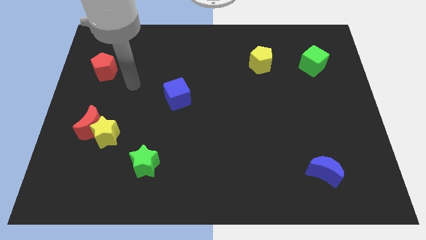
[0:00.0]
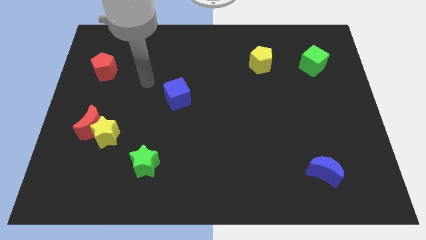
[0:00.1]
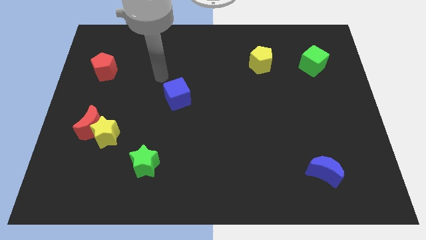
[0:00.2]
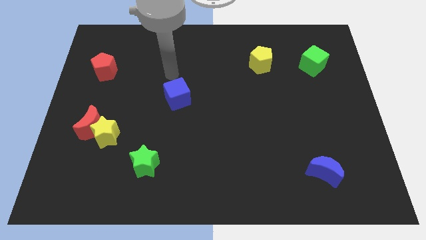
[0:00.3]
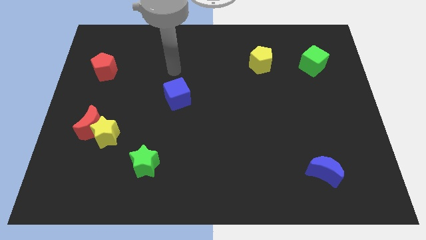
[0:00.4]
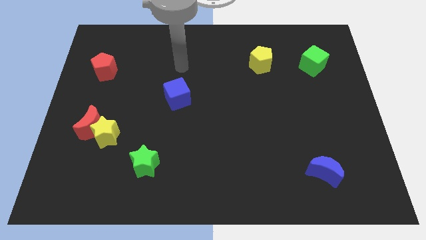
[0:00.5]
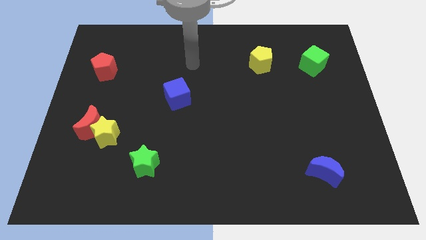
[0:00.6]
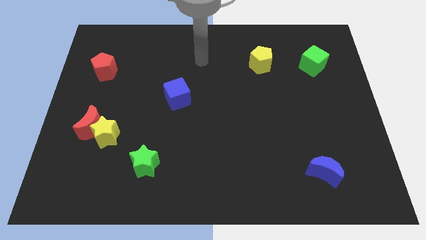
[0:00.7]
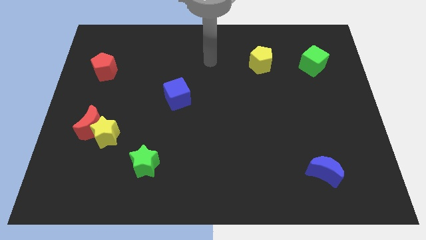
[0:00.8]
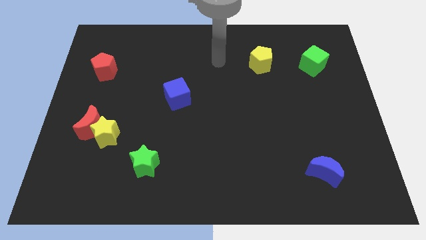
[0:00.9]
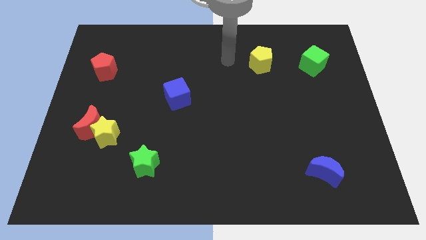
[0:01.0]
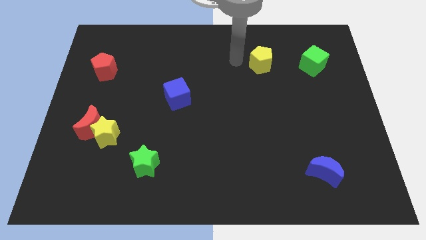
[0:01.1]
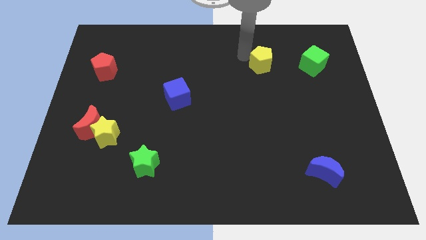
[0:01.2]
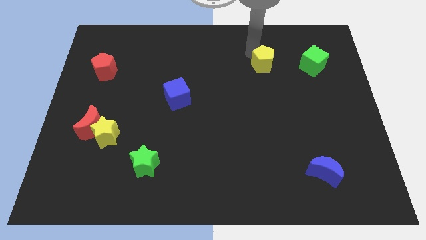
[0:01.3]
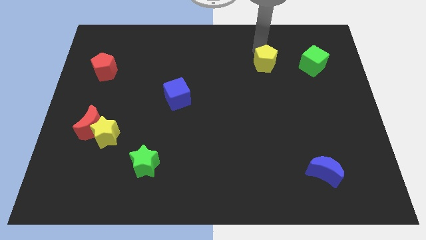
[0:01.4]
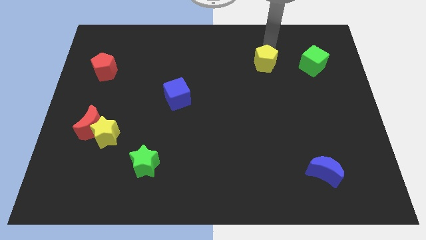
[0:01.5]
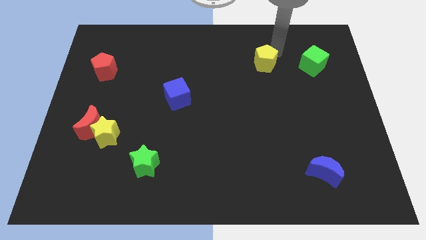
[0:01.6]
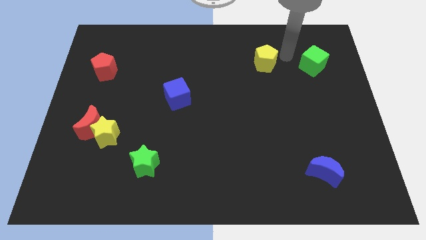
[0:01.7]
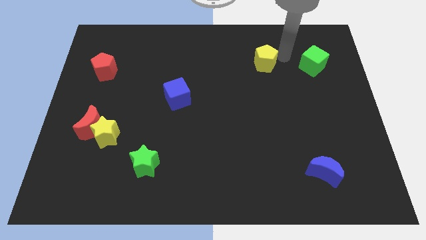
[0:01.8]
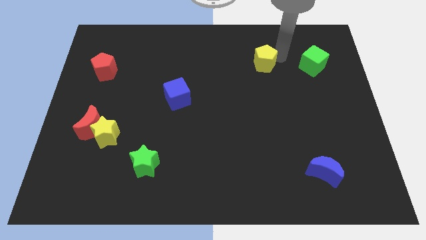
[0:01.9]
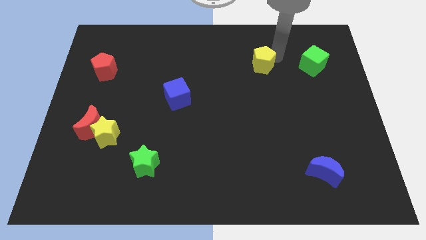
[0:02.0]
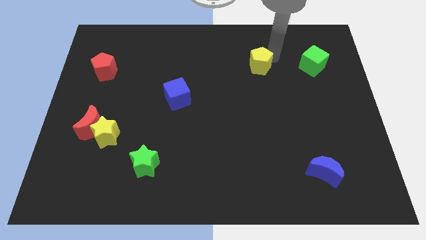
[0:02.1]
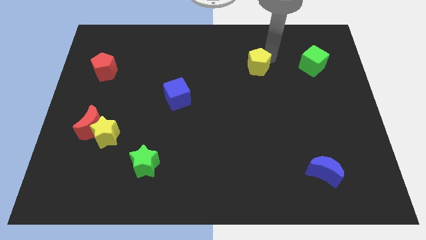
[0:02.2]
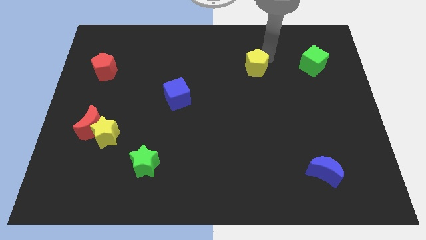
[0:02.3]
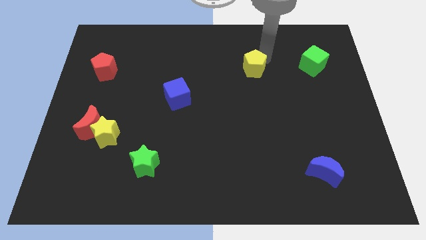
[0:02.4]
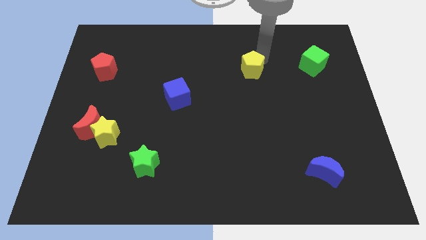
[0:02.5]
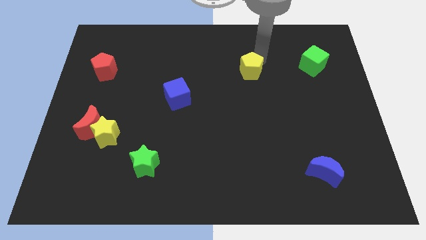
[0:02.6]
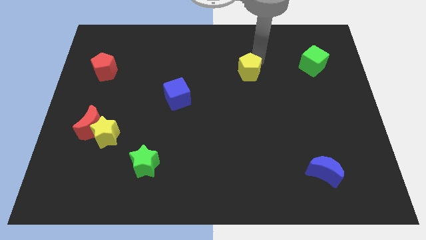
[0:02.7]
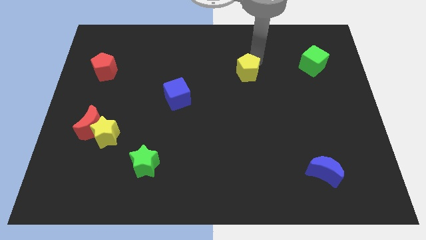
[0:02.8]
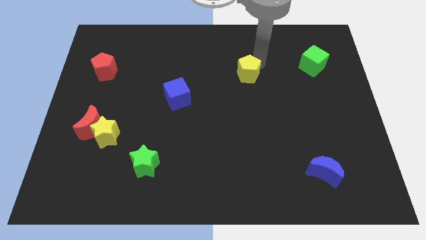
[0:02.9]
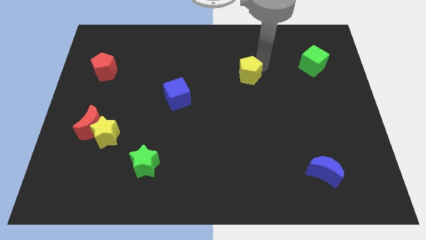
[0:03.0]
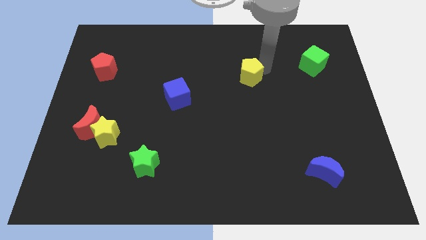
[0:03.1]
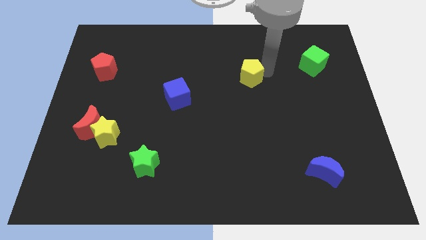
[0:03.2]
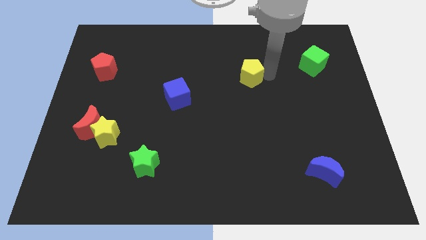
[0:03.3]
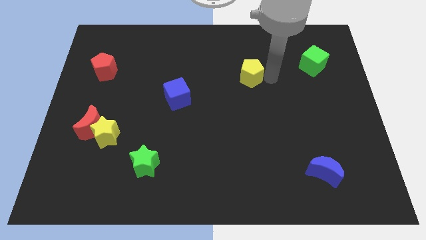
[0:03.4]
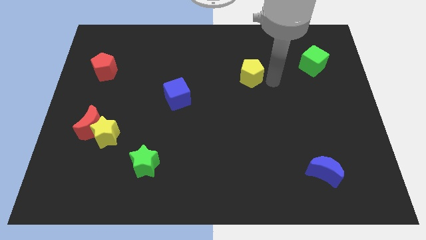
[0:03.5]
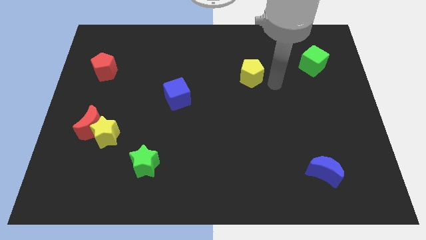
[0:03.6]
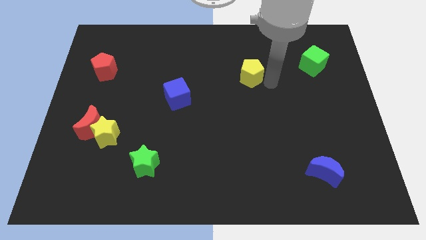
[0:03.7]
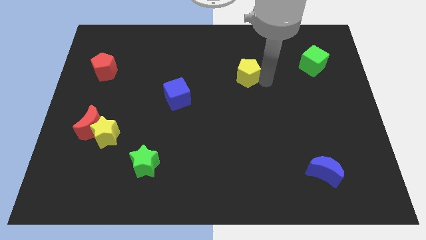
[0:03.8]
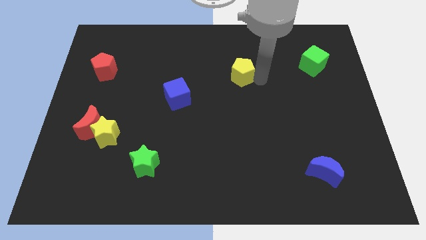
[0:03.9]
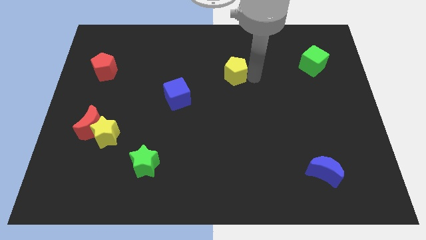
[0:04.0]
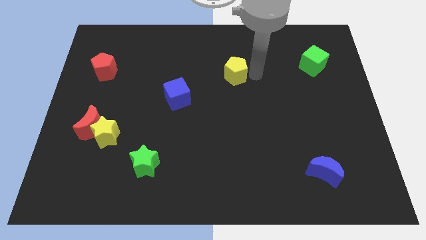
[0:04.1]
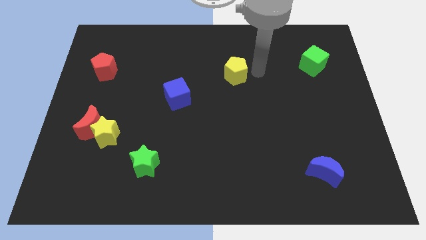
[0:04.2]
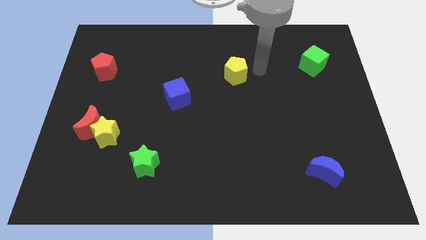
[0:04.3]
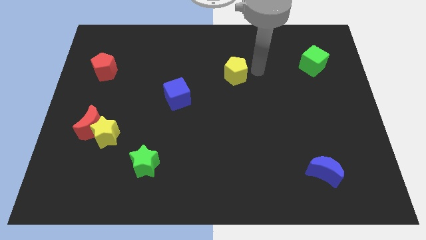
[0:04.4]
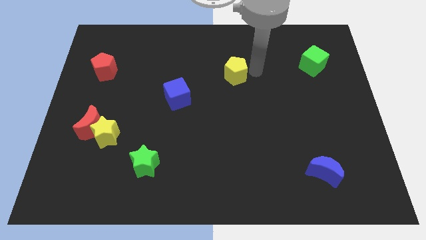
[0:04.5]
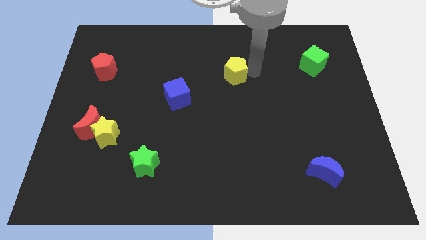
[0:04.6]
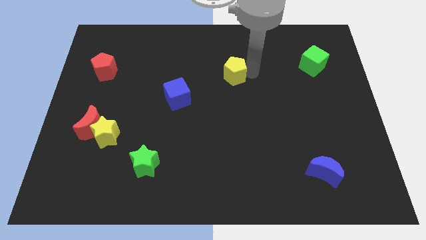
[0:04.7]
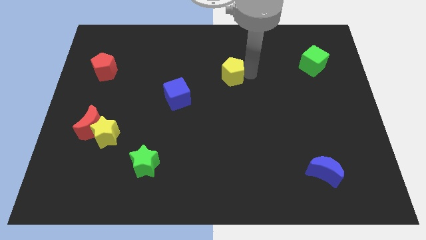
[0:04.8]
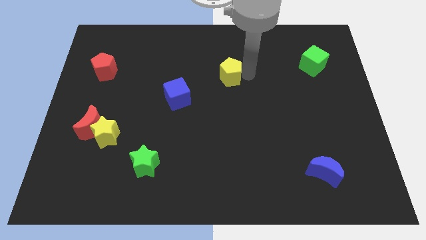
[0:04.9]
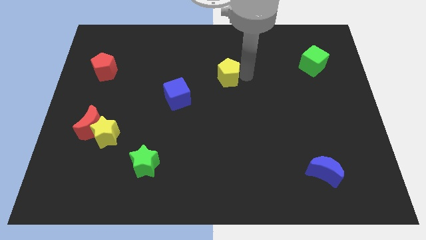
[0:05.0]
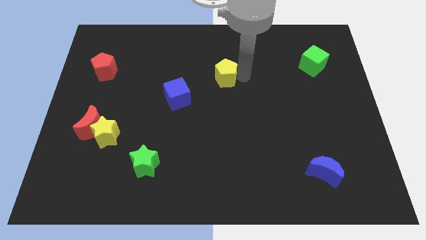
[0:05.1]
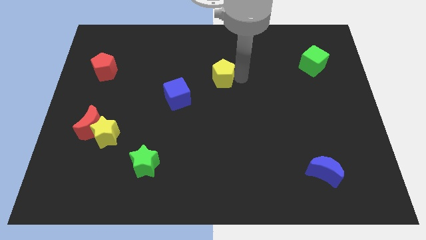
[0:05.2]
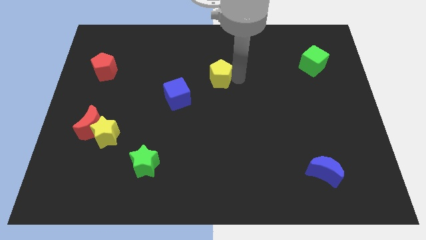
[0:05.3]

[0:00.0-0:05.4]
move the yellow pentagon to the top right of the blue cube

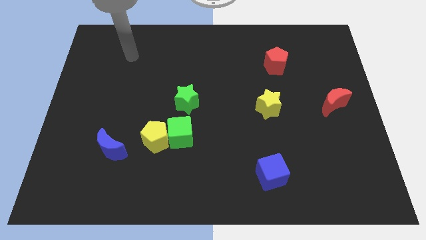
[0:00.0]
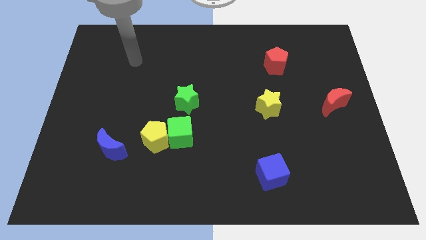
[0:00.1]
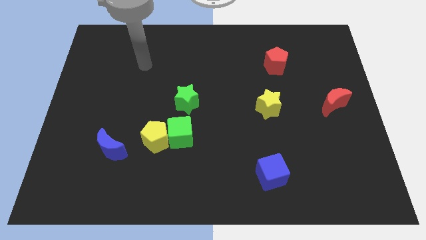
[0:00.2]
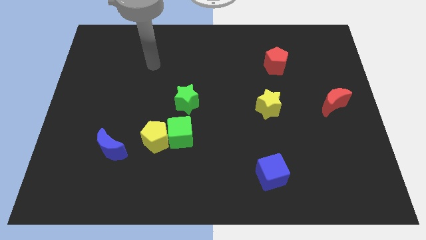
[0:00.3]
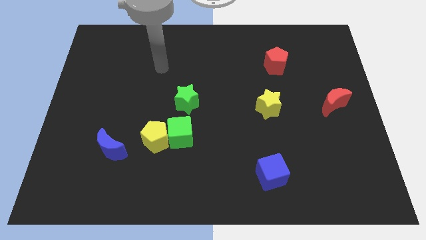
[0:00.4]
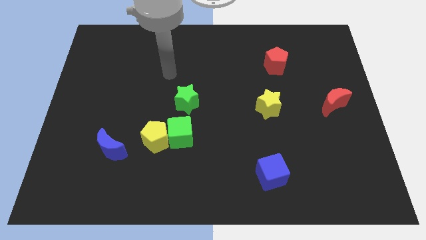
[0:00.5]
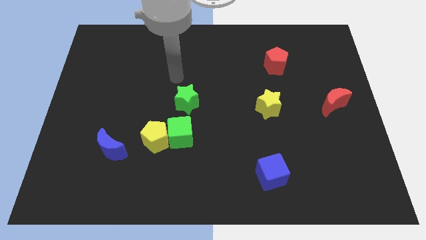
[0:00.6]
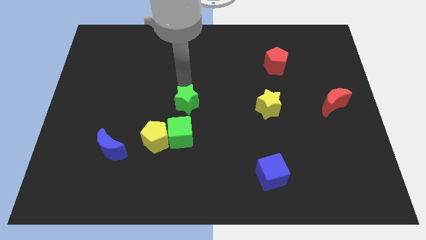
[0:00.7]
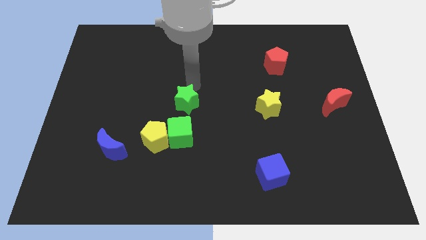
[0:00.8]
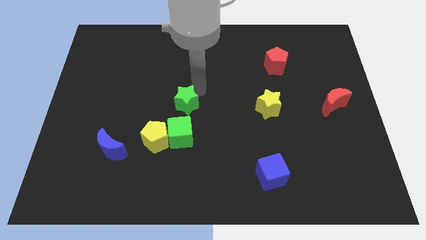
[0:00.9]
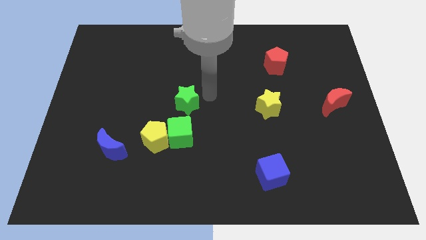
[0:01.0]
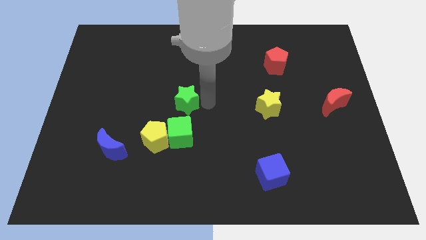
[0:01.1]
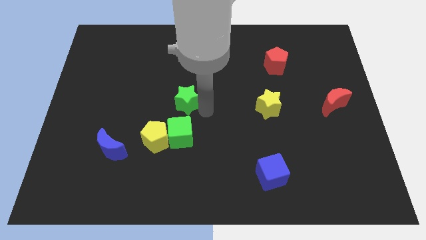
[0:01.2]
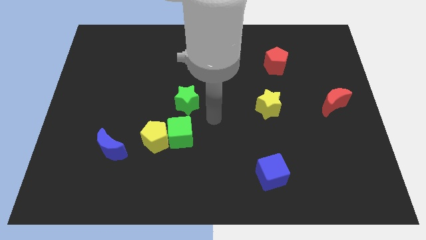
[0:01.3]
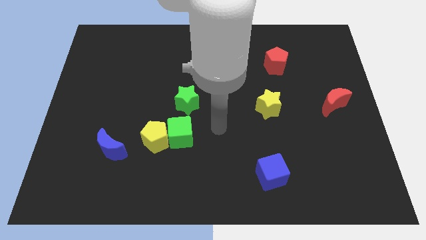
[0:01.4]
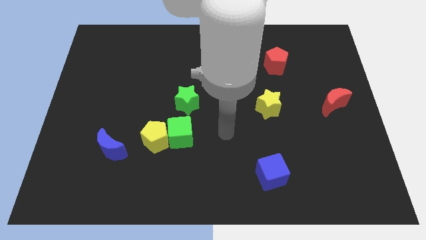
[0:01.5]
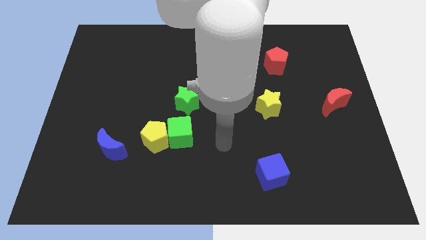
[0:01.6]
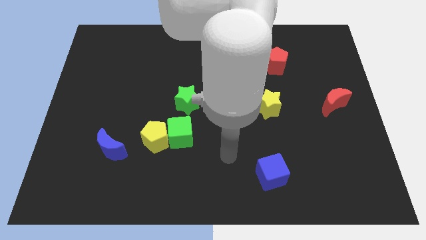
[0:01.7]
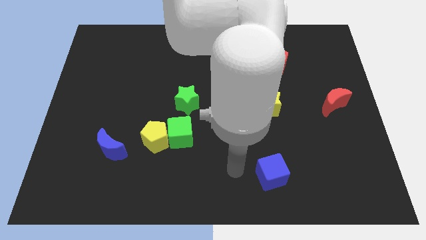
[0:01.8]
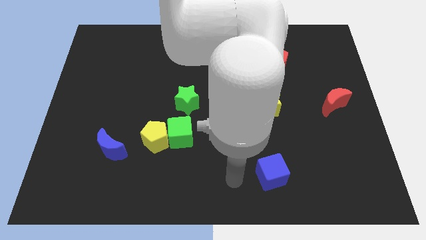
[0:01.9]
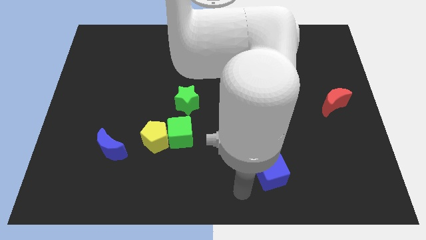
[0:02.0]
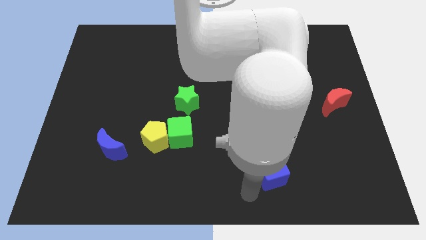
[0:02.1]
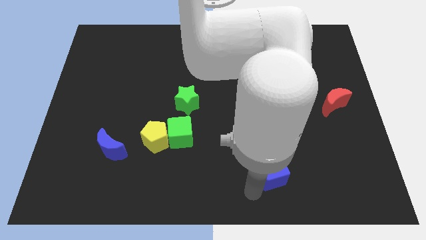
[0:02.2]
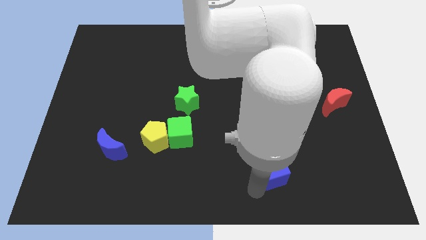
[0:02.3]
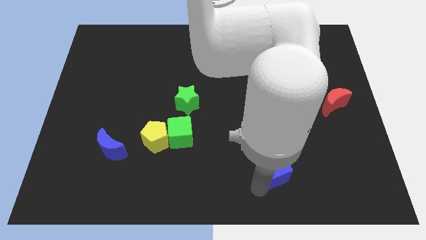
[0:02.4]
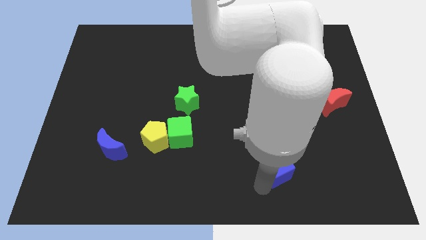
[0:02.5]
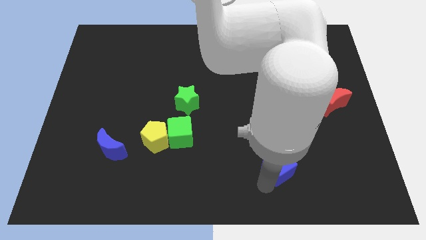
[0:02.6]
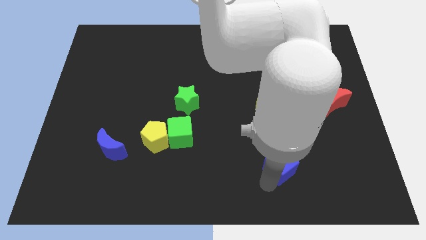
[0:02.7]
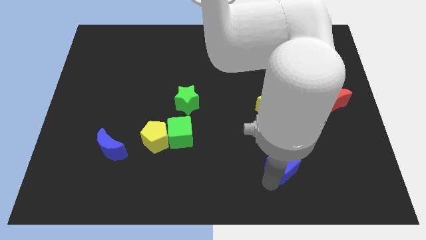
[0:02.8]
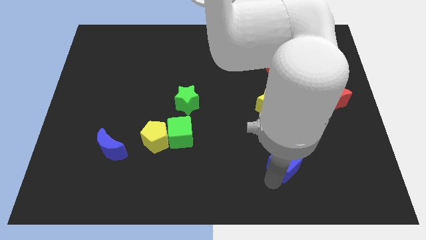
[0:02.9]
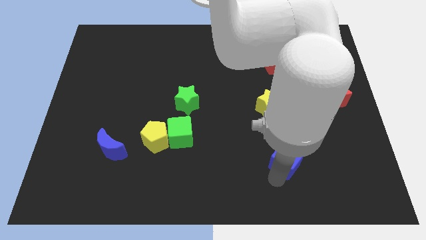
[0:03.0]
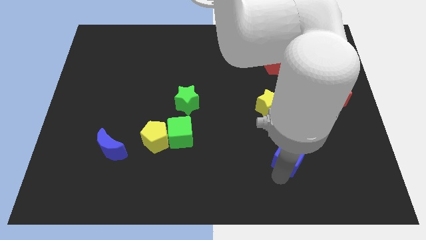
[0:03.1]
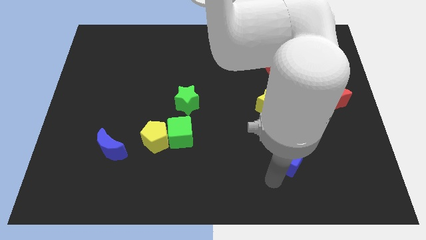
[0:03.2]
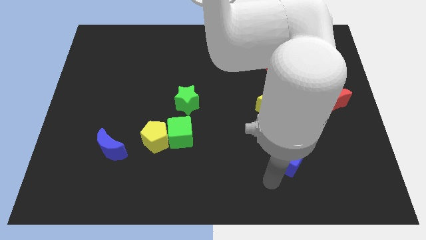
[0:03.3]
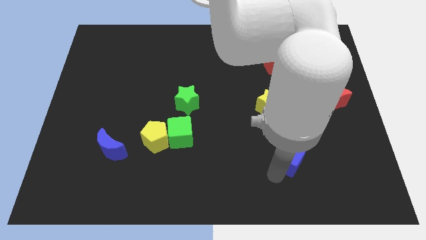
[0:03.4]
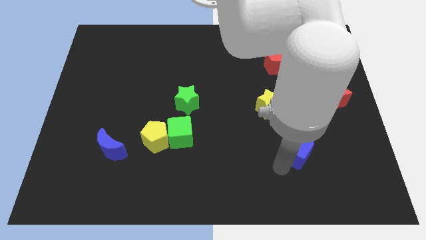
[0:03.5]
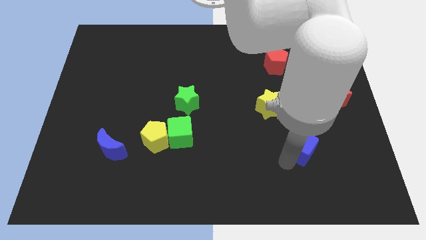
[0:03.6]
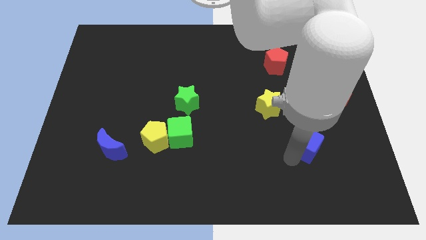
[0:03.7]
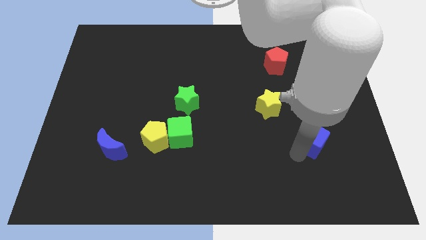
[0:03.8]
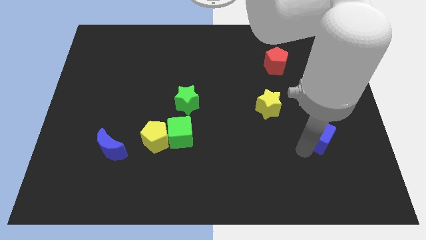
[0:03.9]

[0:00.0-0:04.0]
move the blue cube diagonally down and to the left of the red moon
